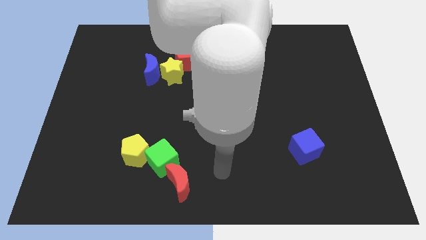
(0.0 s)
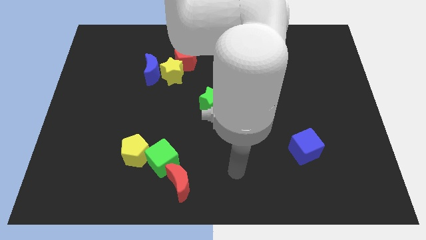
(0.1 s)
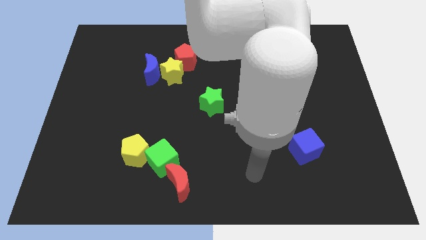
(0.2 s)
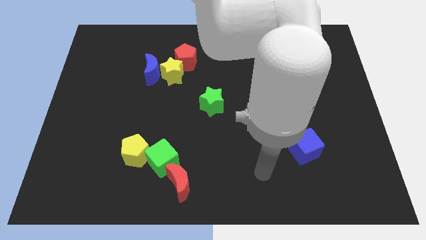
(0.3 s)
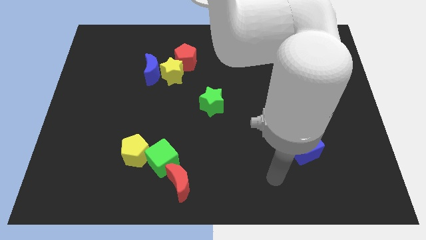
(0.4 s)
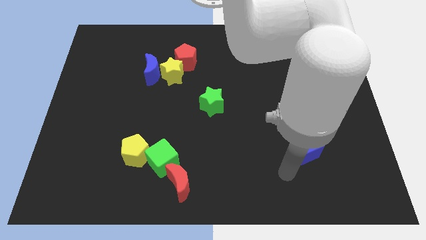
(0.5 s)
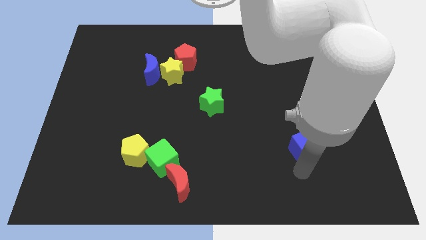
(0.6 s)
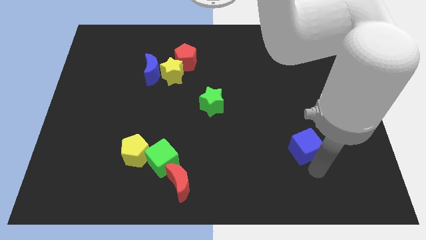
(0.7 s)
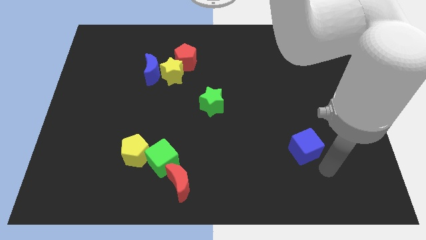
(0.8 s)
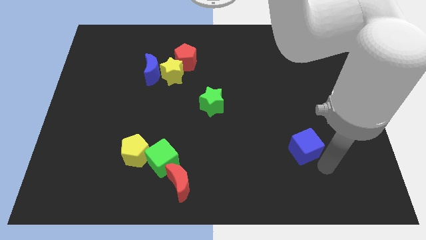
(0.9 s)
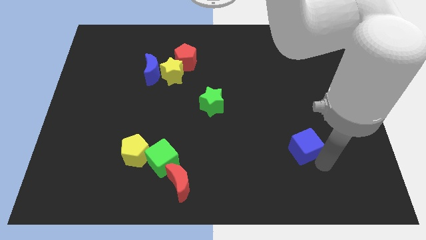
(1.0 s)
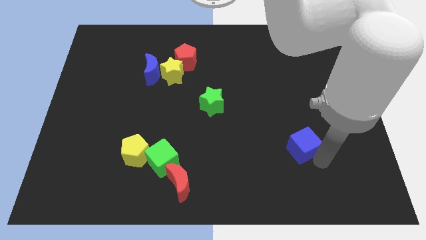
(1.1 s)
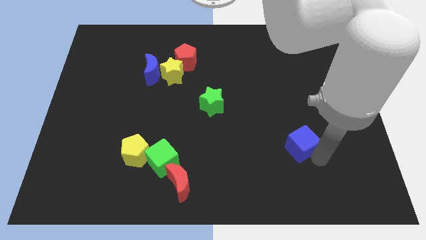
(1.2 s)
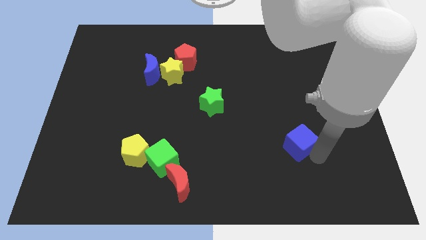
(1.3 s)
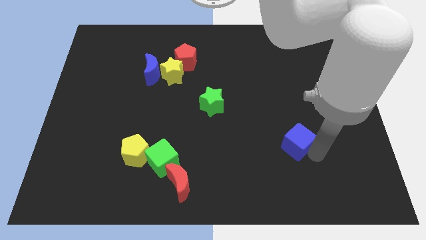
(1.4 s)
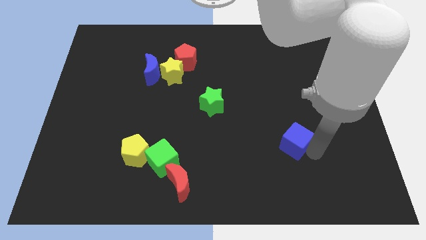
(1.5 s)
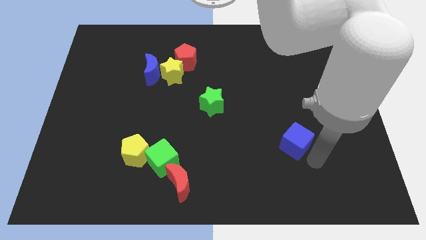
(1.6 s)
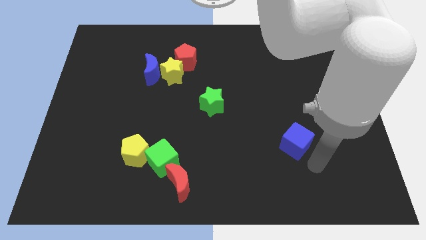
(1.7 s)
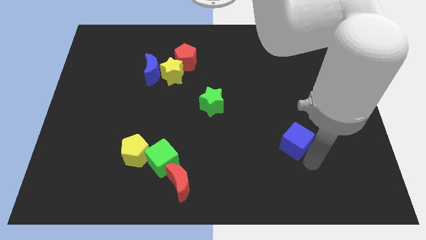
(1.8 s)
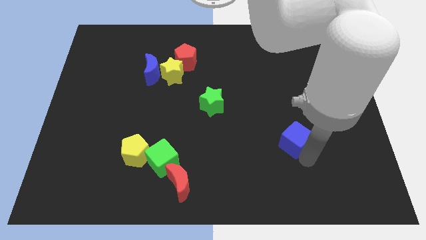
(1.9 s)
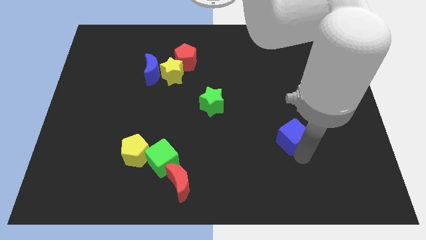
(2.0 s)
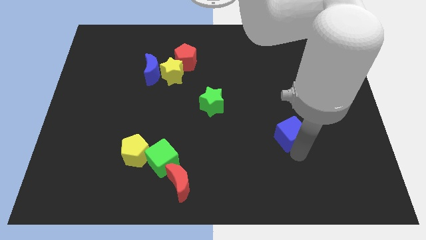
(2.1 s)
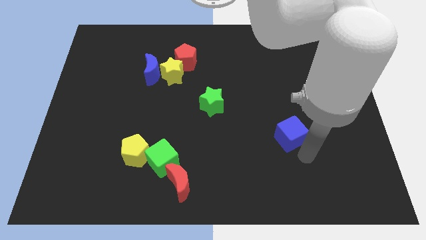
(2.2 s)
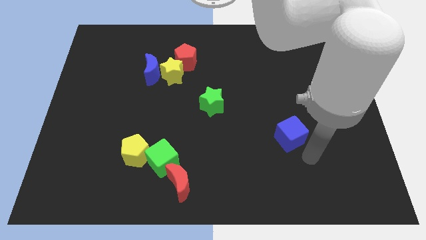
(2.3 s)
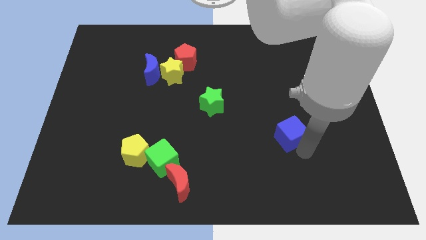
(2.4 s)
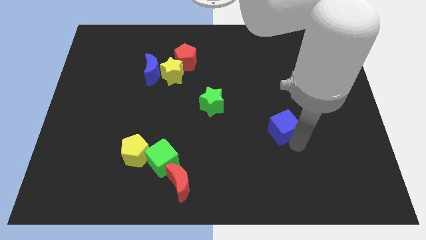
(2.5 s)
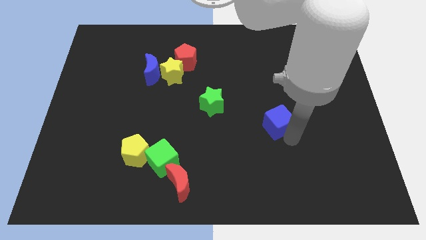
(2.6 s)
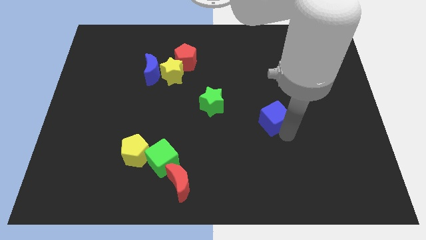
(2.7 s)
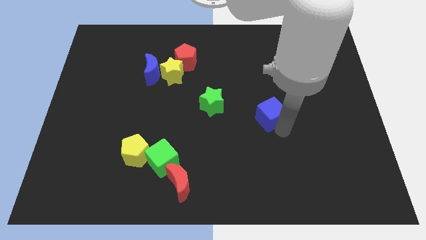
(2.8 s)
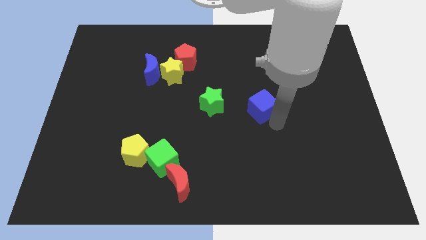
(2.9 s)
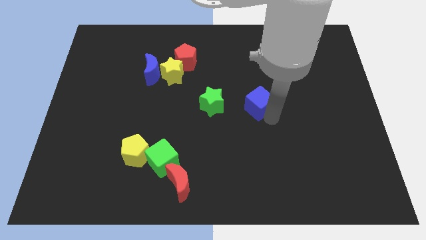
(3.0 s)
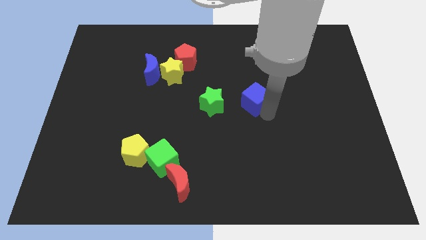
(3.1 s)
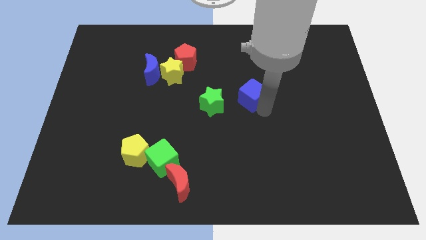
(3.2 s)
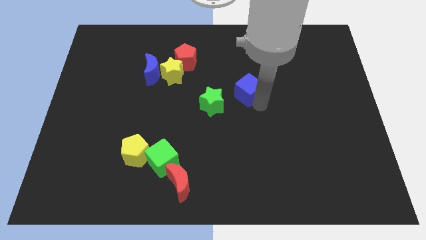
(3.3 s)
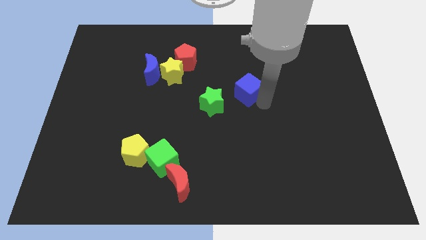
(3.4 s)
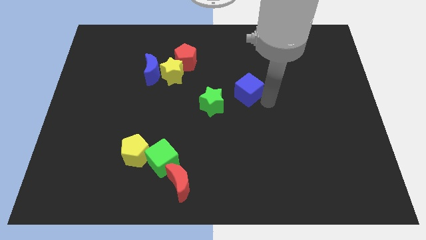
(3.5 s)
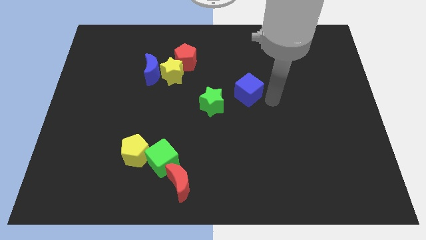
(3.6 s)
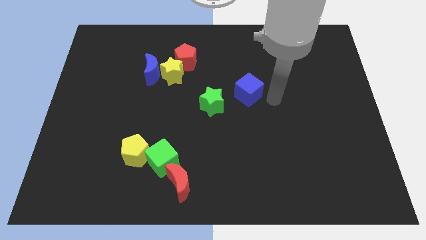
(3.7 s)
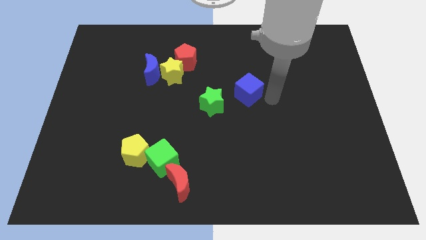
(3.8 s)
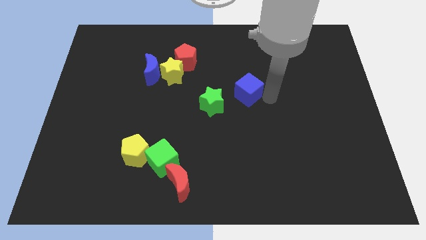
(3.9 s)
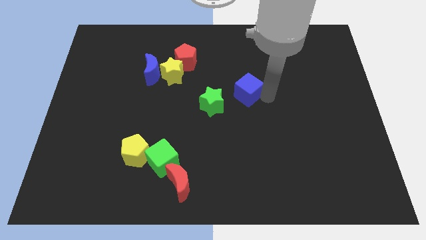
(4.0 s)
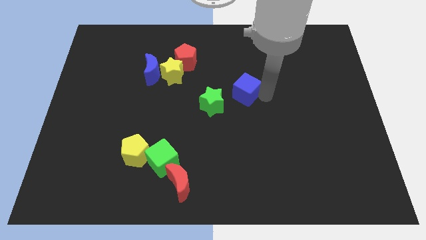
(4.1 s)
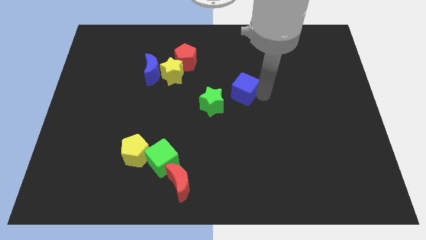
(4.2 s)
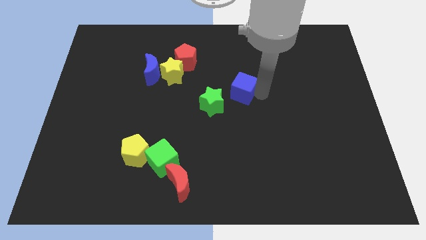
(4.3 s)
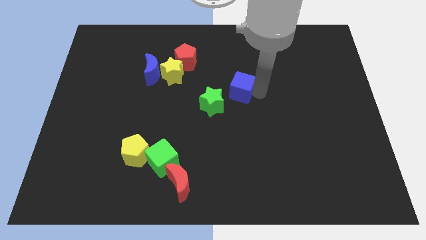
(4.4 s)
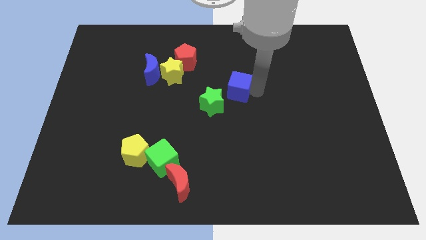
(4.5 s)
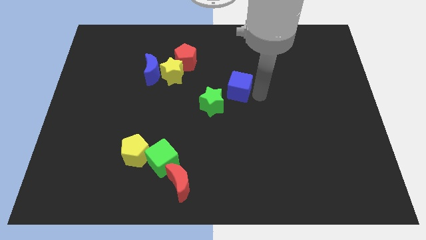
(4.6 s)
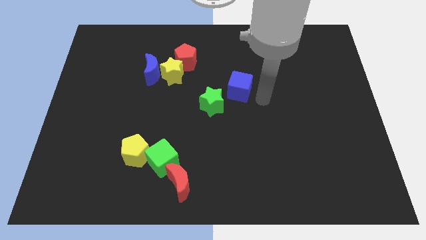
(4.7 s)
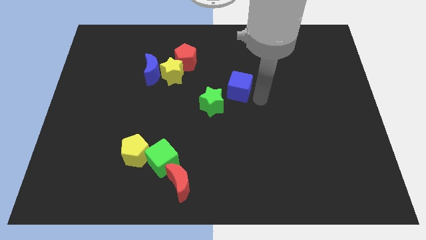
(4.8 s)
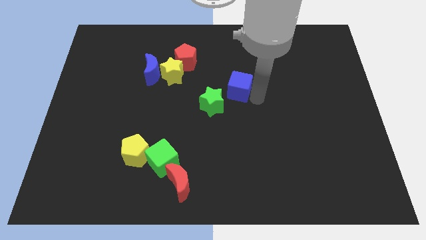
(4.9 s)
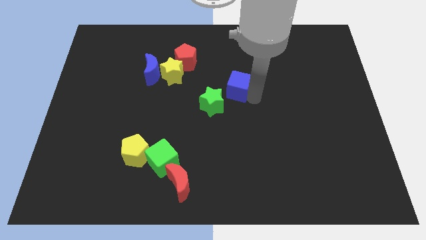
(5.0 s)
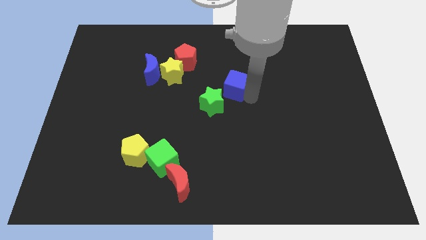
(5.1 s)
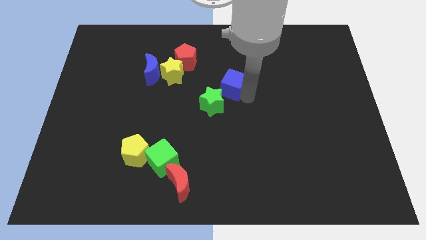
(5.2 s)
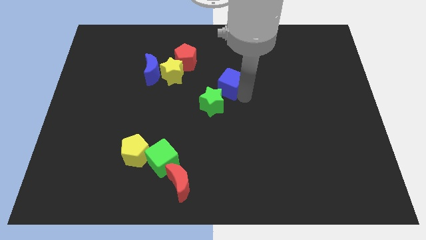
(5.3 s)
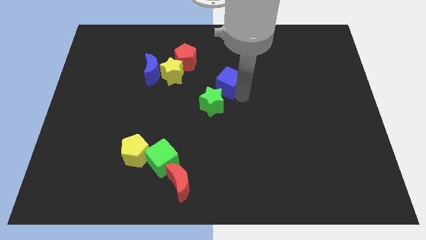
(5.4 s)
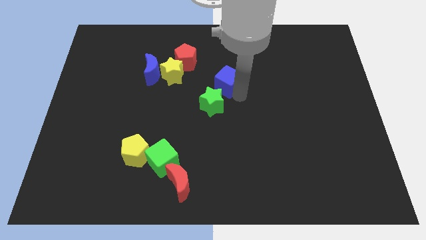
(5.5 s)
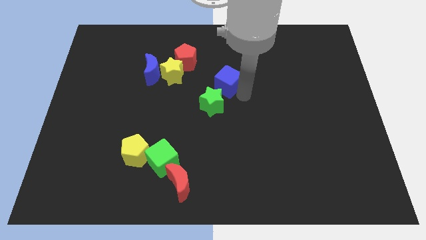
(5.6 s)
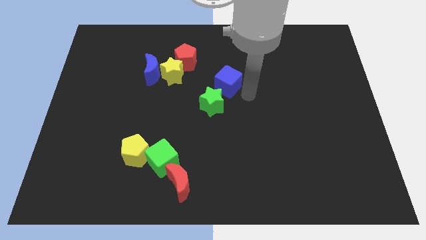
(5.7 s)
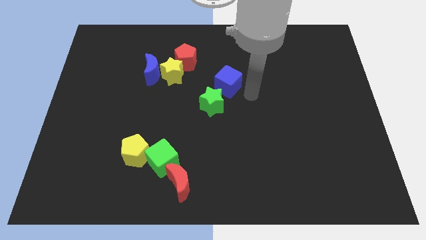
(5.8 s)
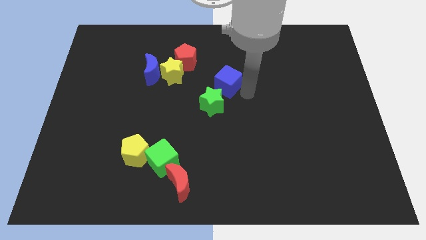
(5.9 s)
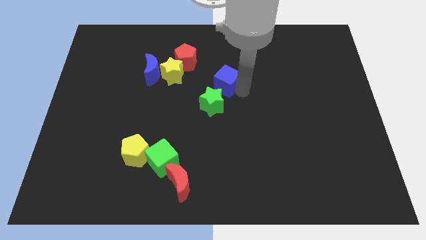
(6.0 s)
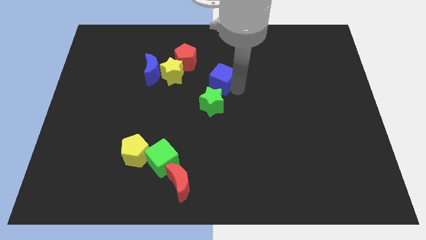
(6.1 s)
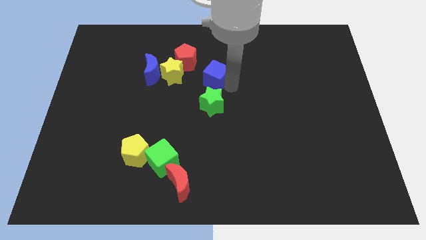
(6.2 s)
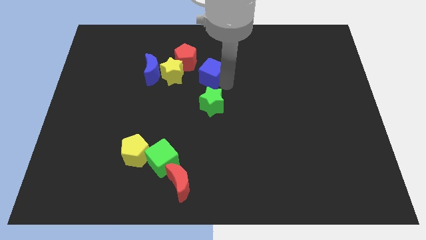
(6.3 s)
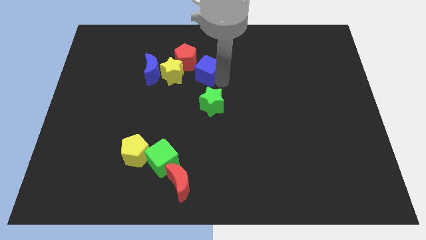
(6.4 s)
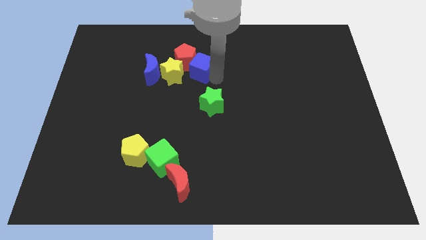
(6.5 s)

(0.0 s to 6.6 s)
move the blue cube next to the red pentagon

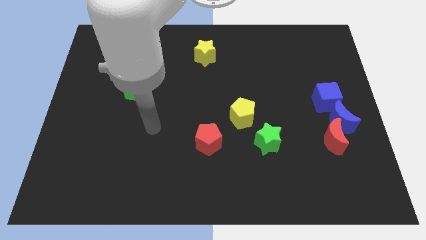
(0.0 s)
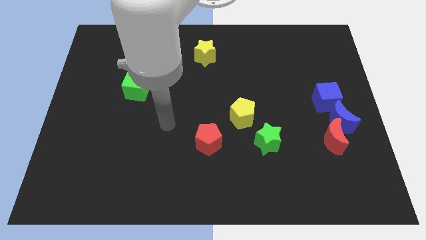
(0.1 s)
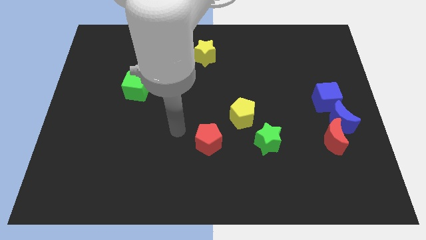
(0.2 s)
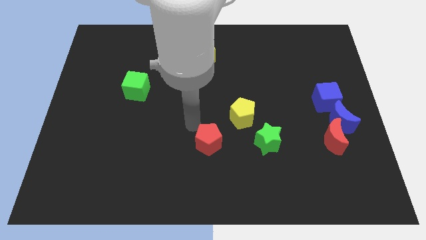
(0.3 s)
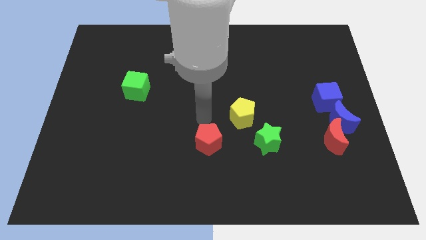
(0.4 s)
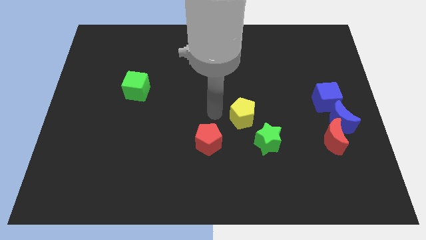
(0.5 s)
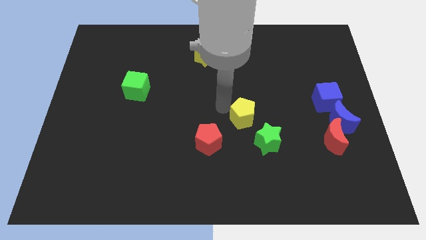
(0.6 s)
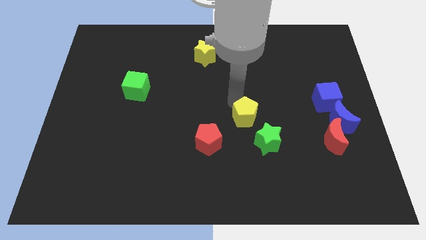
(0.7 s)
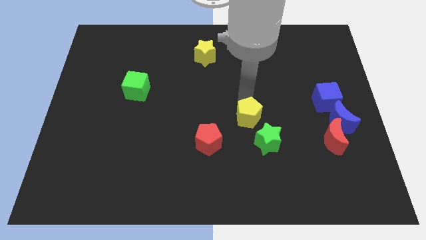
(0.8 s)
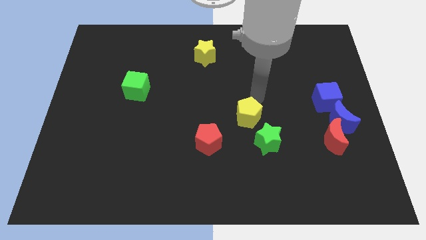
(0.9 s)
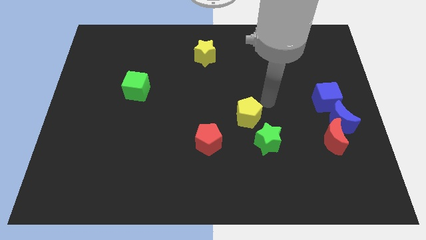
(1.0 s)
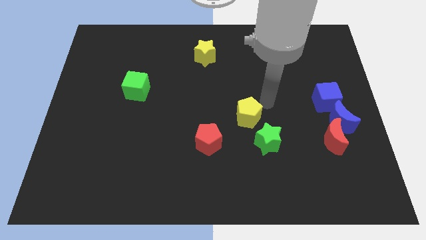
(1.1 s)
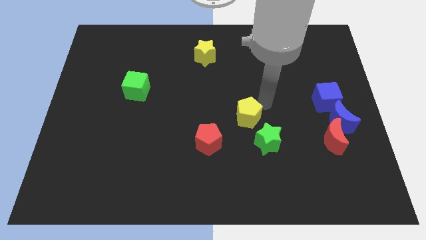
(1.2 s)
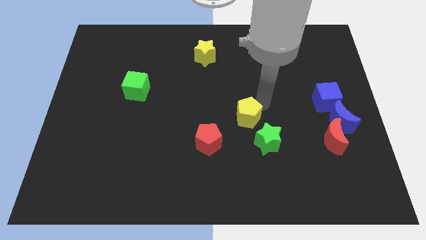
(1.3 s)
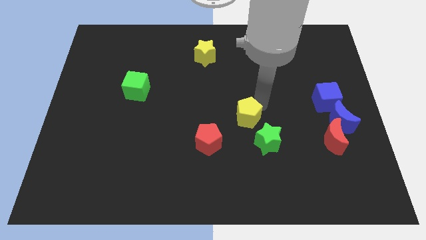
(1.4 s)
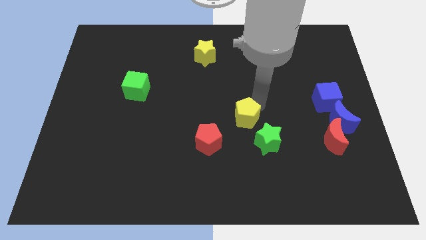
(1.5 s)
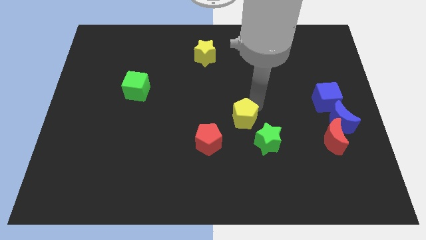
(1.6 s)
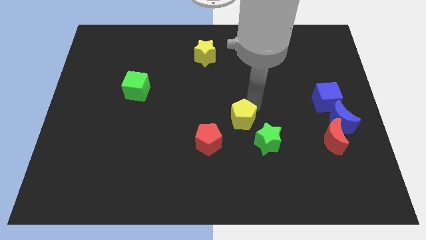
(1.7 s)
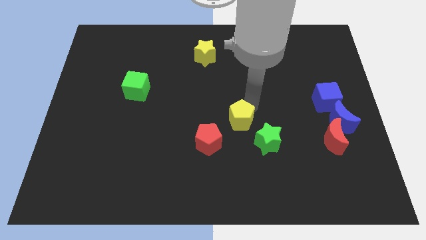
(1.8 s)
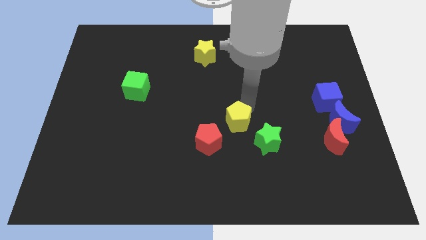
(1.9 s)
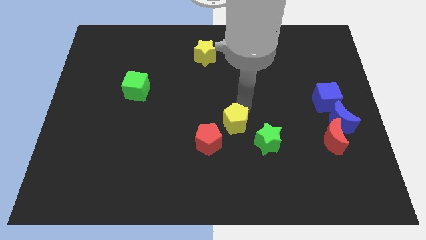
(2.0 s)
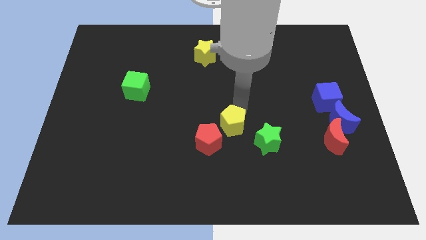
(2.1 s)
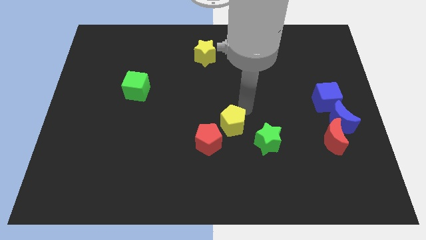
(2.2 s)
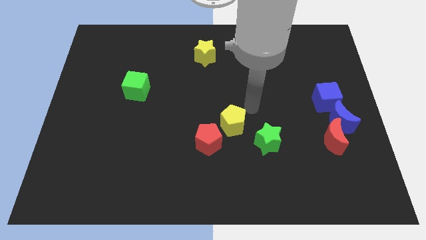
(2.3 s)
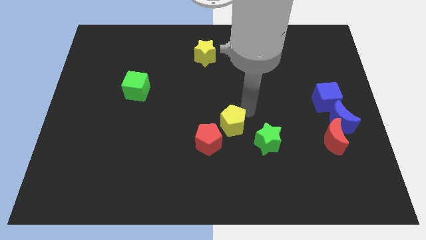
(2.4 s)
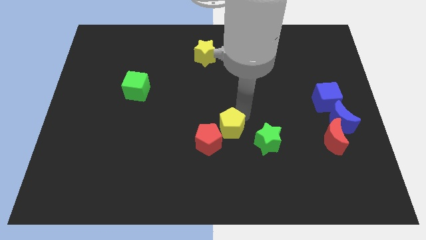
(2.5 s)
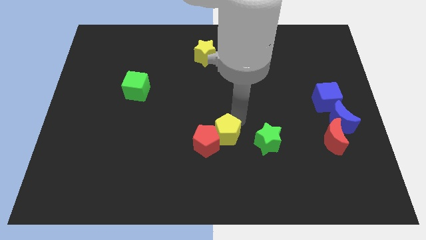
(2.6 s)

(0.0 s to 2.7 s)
move the yellow pentagon close to the red pentagon
